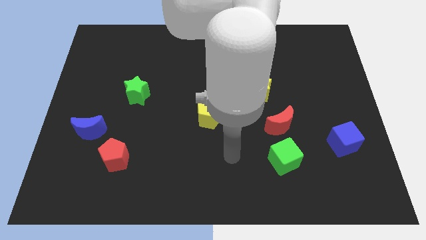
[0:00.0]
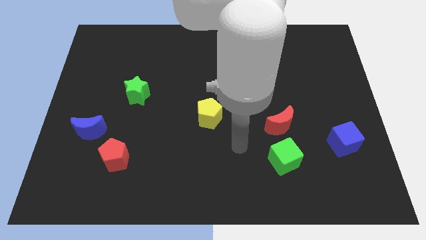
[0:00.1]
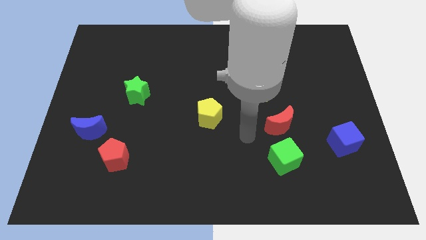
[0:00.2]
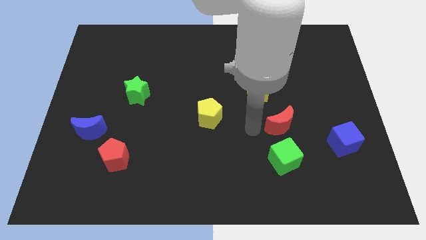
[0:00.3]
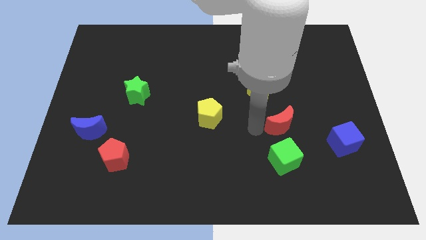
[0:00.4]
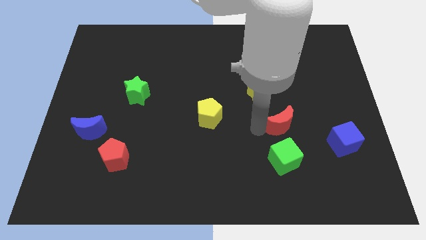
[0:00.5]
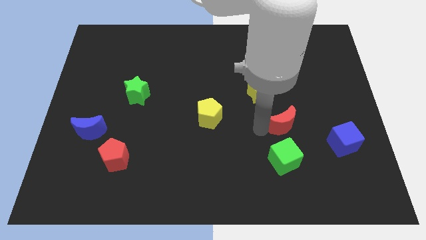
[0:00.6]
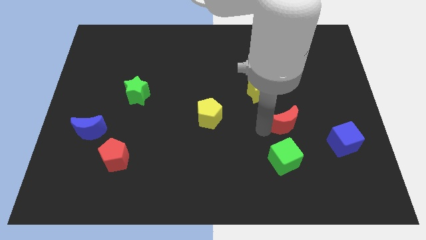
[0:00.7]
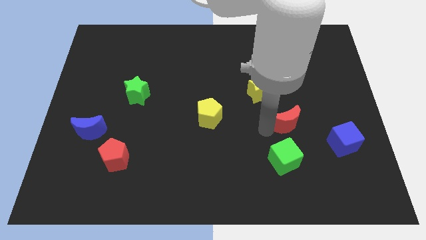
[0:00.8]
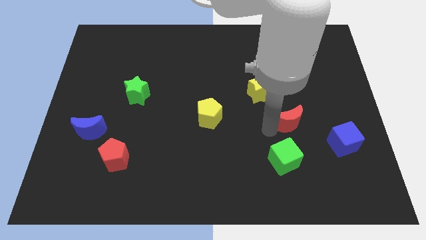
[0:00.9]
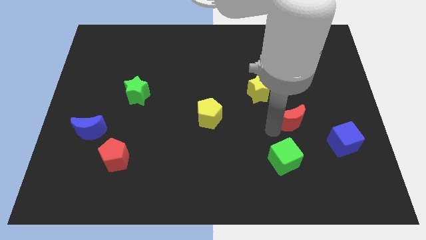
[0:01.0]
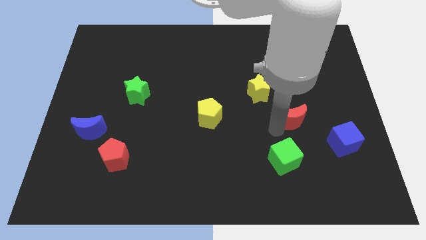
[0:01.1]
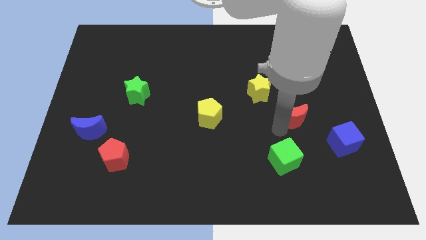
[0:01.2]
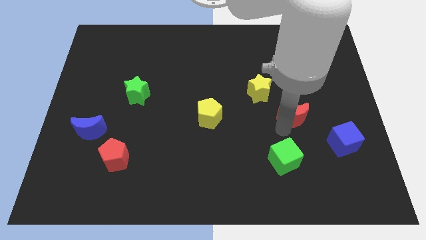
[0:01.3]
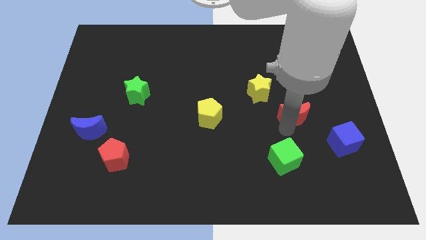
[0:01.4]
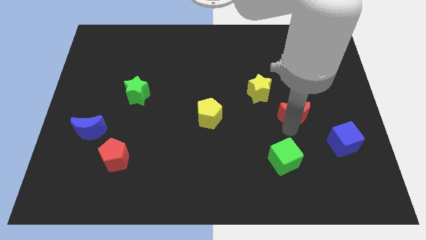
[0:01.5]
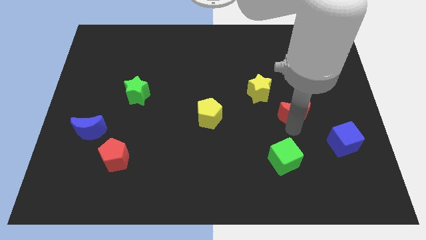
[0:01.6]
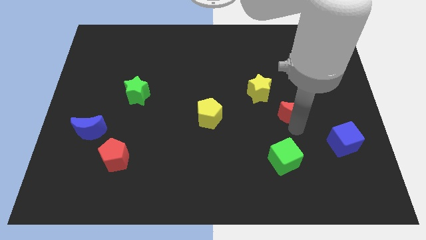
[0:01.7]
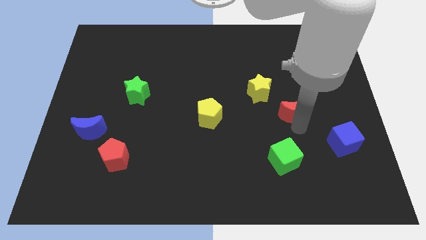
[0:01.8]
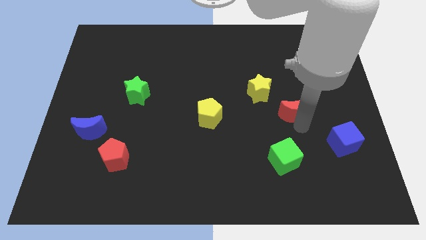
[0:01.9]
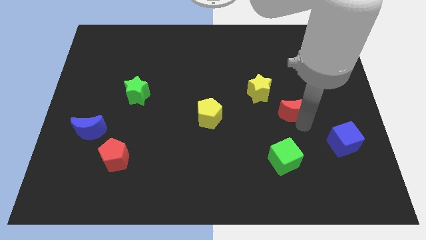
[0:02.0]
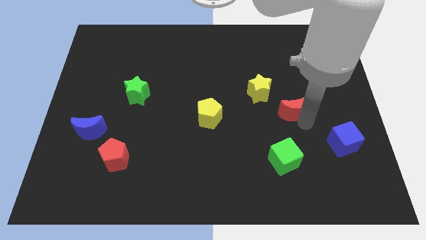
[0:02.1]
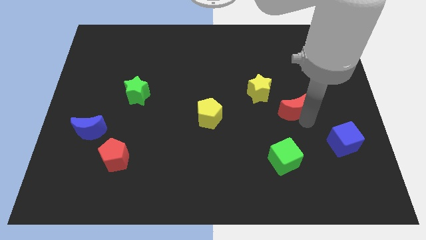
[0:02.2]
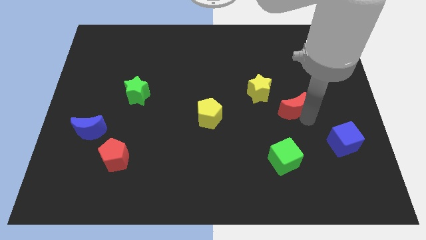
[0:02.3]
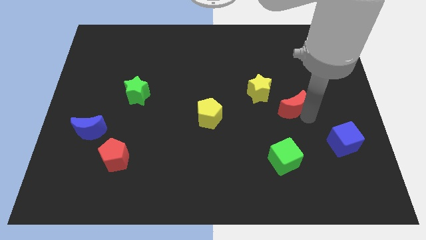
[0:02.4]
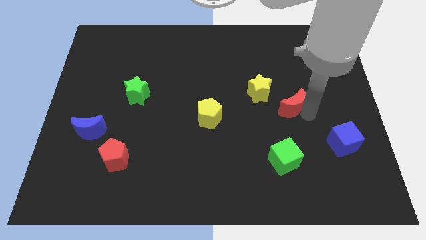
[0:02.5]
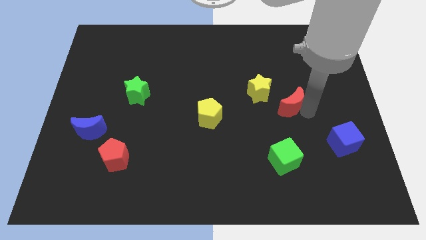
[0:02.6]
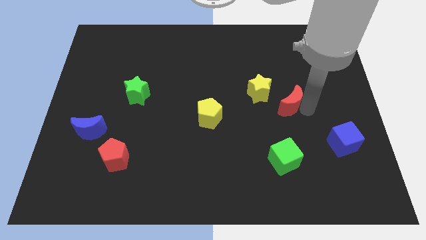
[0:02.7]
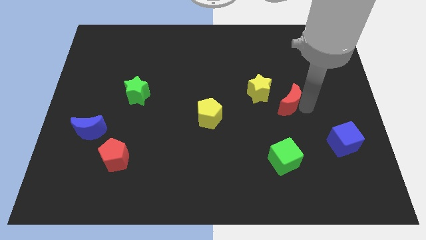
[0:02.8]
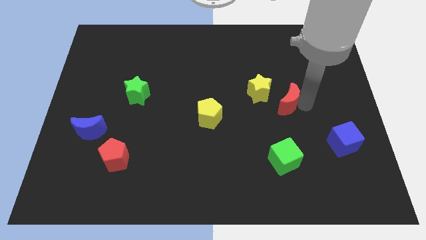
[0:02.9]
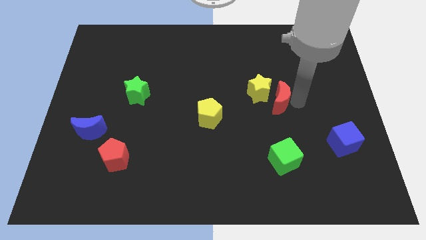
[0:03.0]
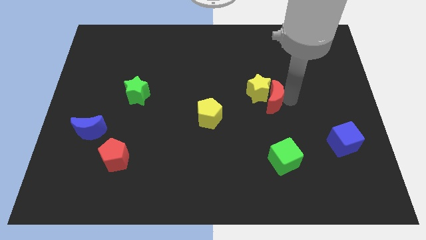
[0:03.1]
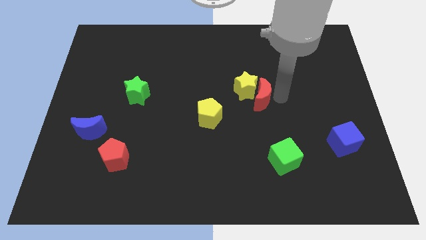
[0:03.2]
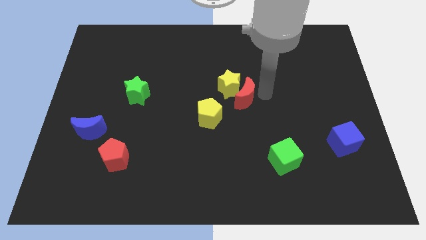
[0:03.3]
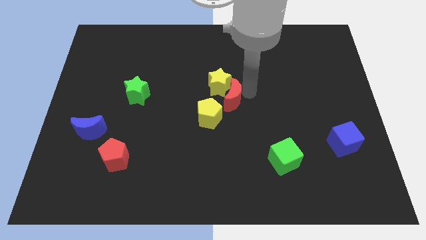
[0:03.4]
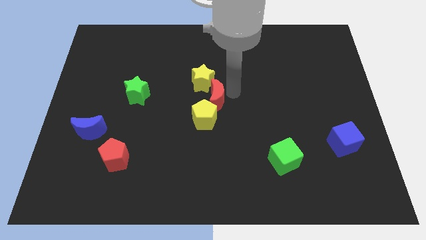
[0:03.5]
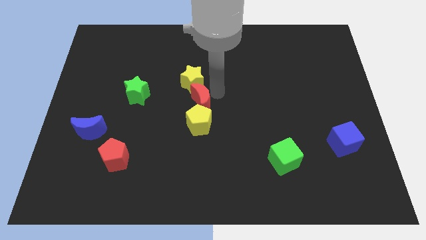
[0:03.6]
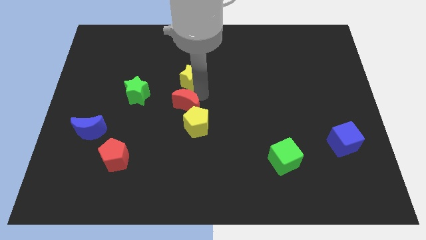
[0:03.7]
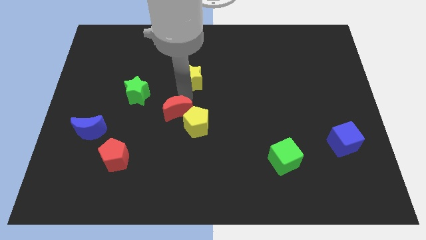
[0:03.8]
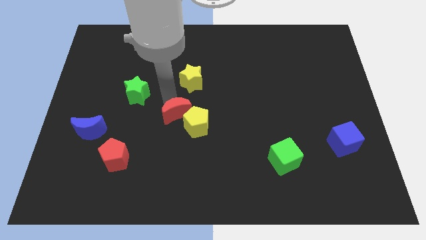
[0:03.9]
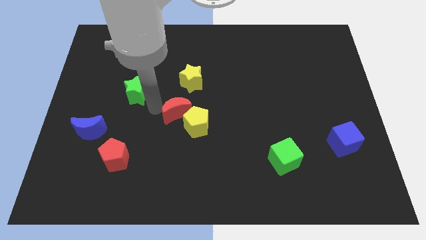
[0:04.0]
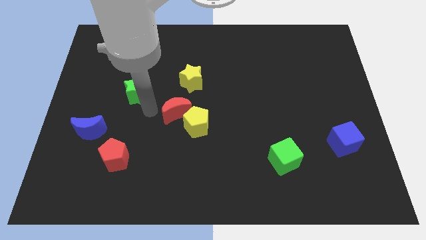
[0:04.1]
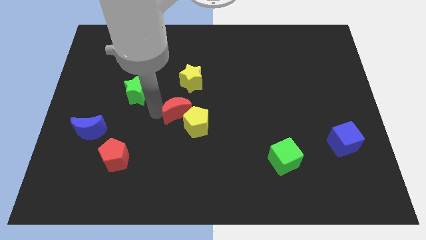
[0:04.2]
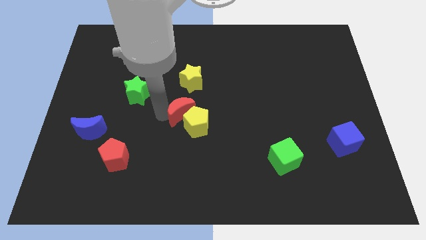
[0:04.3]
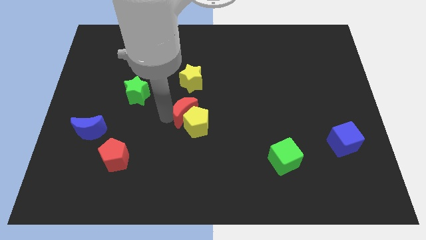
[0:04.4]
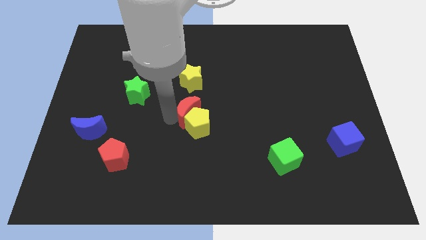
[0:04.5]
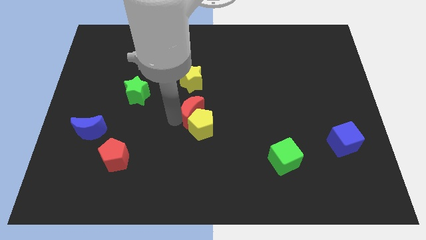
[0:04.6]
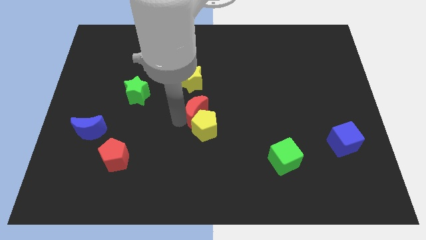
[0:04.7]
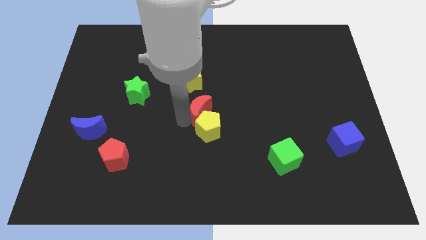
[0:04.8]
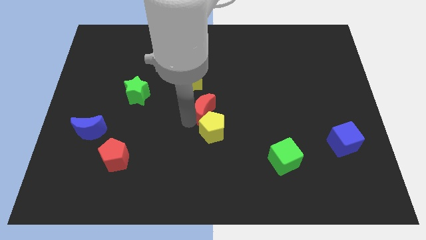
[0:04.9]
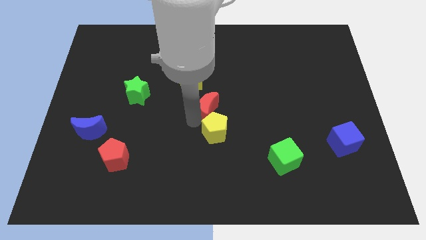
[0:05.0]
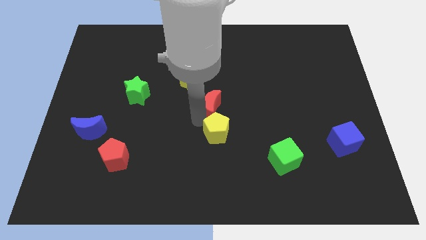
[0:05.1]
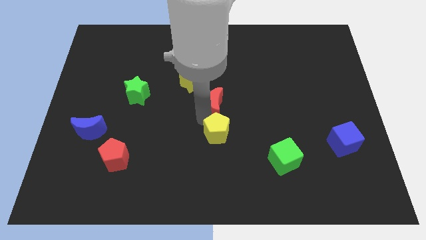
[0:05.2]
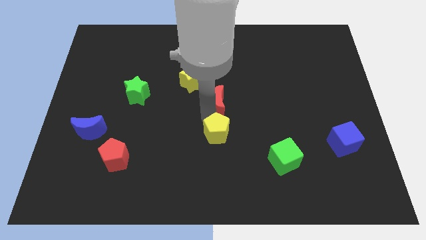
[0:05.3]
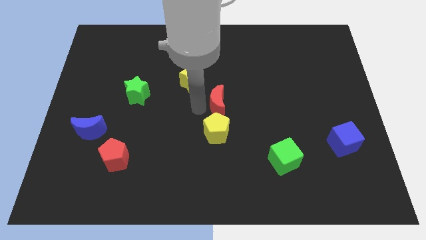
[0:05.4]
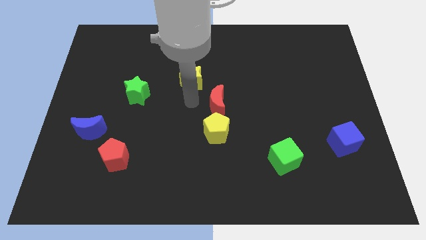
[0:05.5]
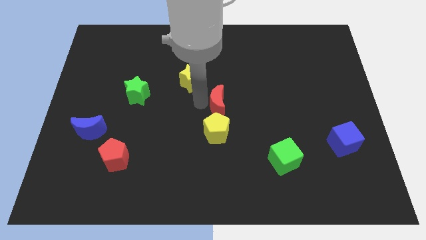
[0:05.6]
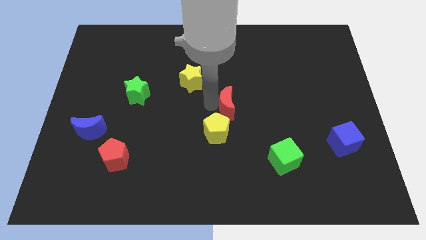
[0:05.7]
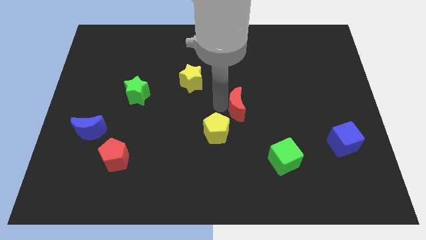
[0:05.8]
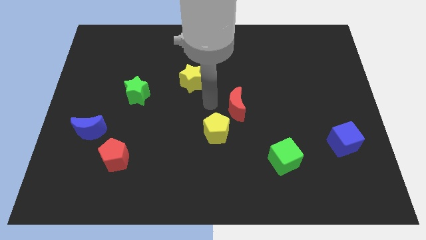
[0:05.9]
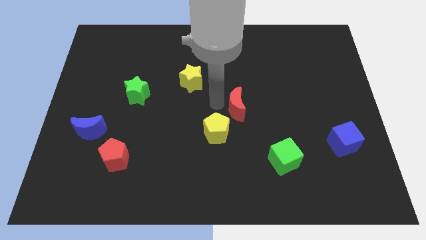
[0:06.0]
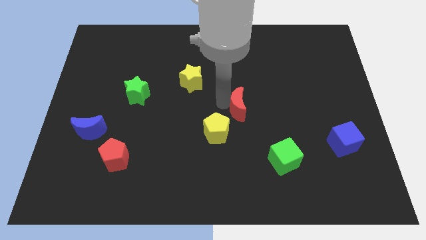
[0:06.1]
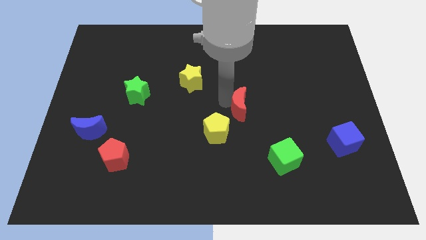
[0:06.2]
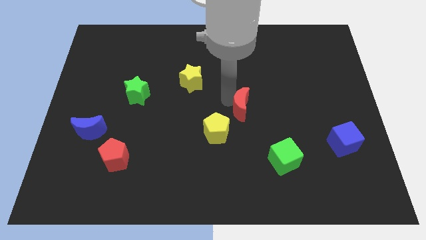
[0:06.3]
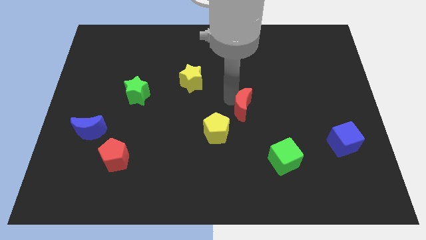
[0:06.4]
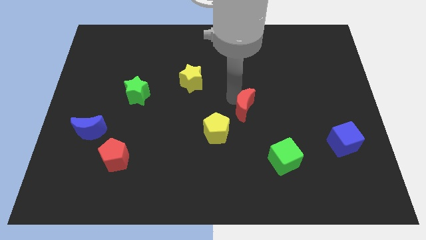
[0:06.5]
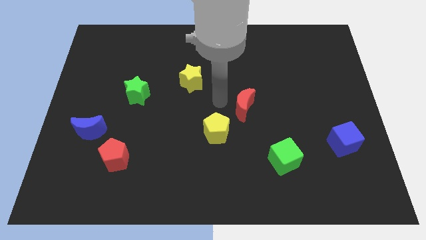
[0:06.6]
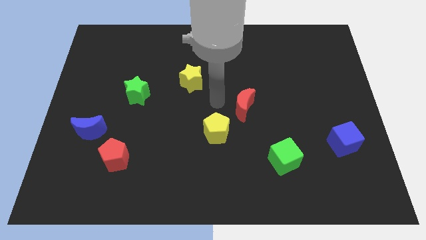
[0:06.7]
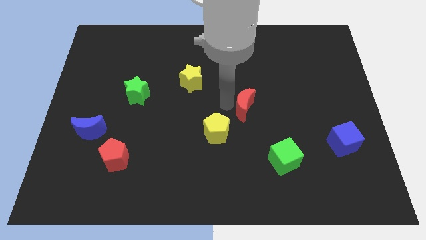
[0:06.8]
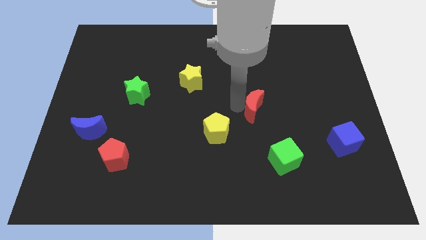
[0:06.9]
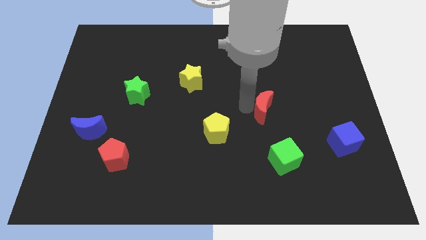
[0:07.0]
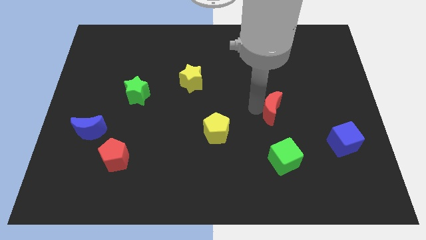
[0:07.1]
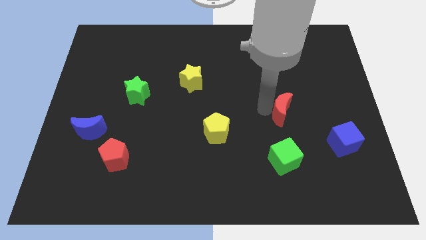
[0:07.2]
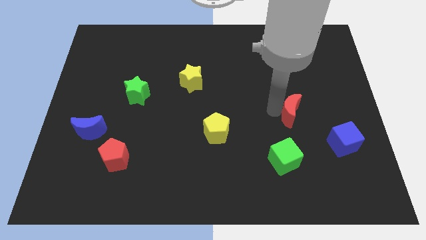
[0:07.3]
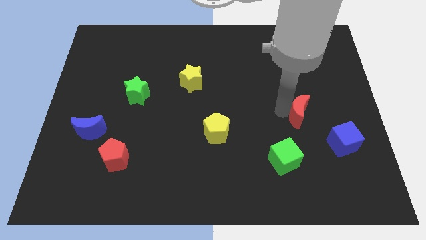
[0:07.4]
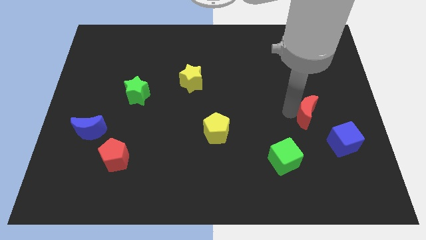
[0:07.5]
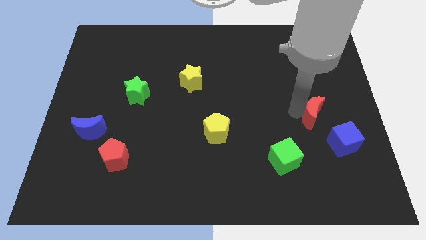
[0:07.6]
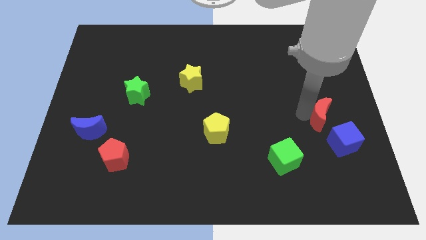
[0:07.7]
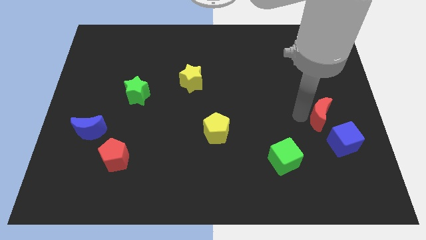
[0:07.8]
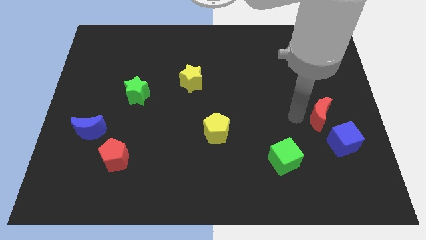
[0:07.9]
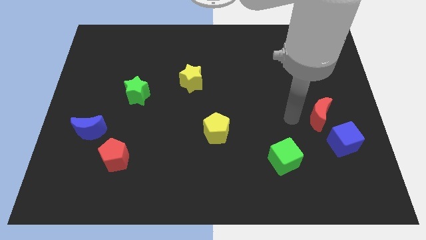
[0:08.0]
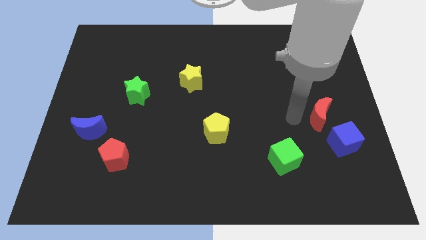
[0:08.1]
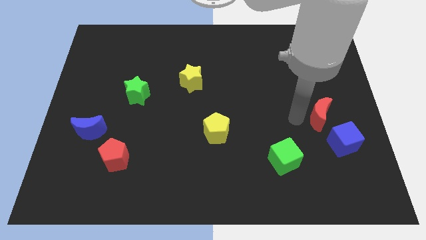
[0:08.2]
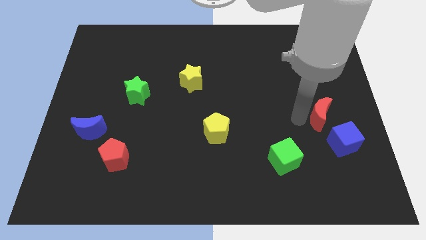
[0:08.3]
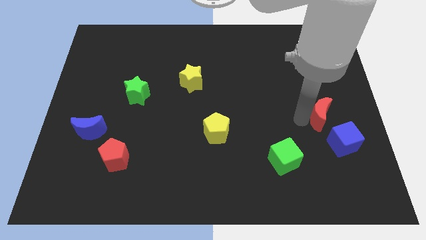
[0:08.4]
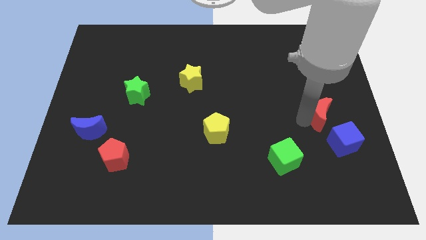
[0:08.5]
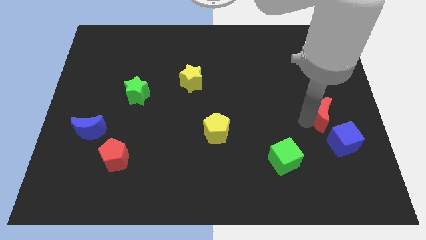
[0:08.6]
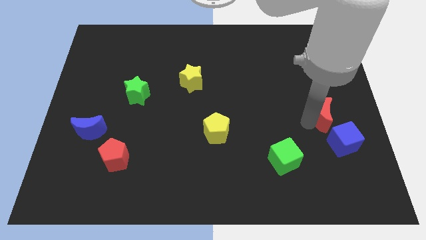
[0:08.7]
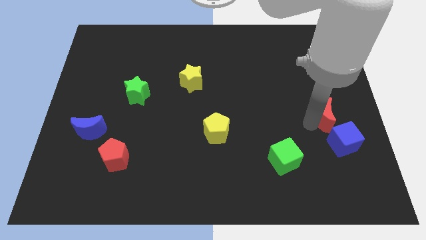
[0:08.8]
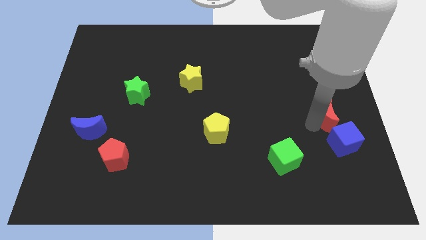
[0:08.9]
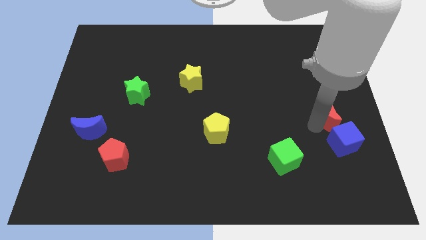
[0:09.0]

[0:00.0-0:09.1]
put the red moon to the right side of the board
